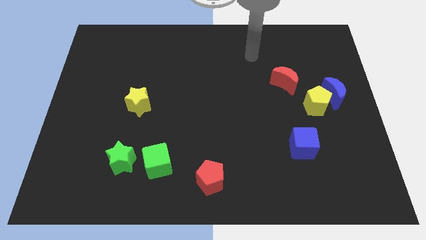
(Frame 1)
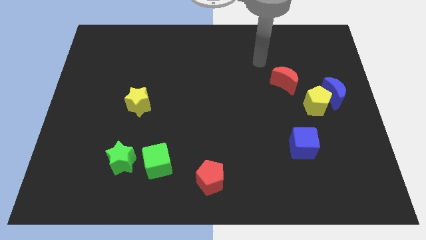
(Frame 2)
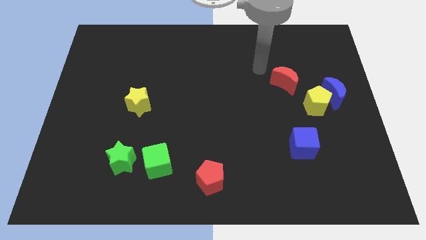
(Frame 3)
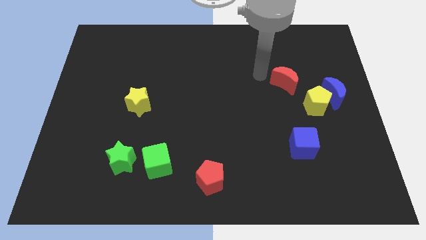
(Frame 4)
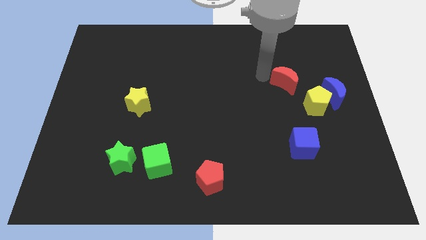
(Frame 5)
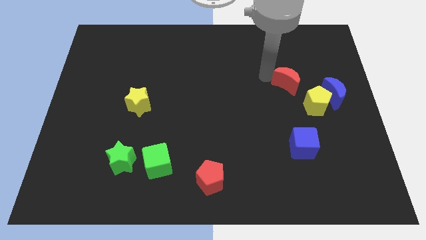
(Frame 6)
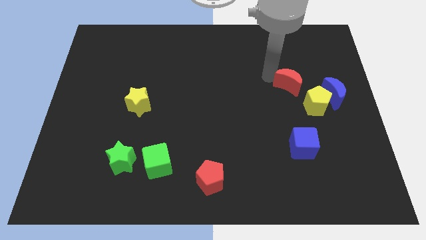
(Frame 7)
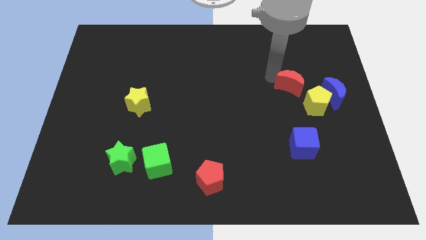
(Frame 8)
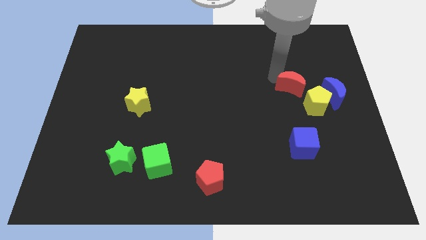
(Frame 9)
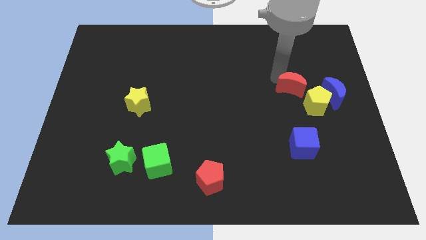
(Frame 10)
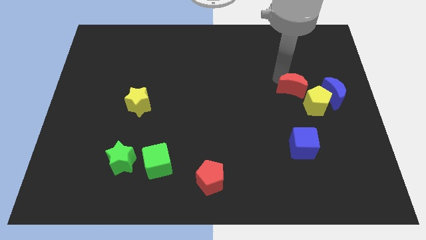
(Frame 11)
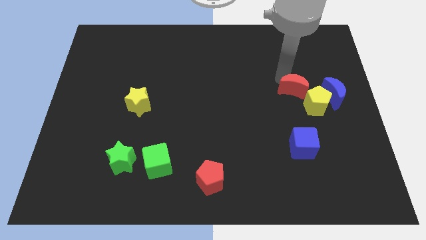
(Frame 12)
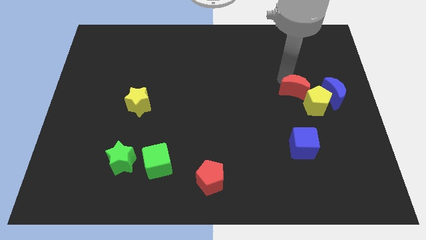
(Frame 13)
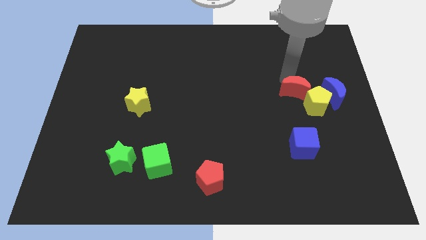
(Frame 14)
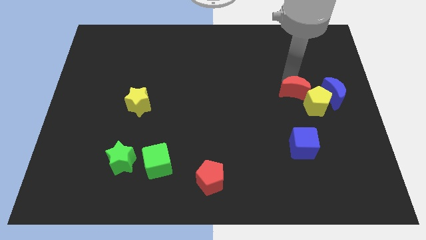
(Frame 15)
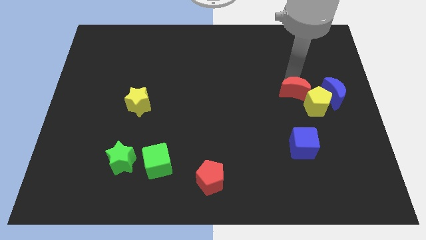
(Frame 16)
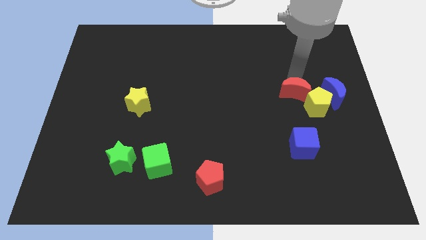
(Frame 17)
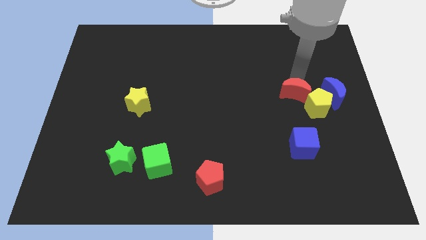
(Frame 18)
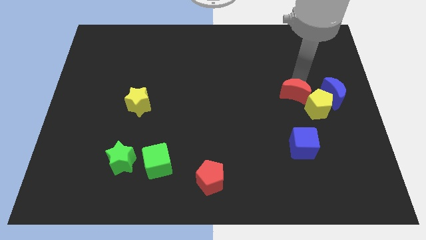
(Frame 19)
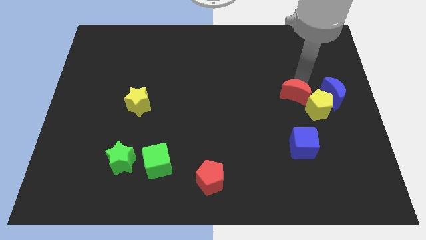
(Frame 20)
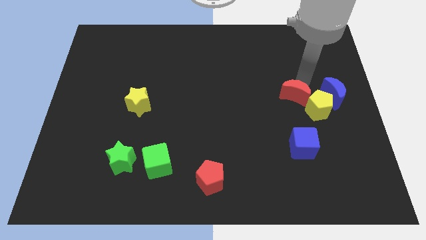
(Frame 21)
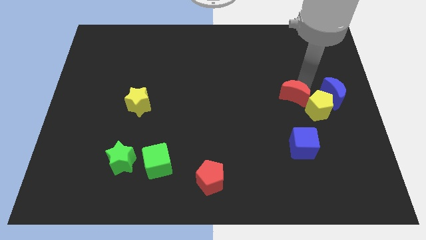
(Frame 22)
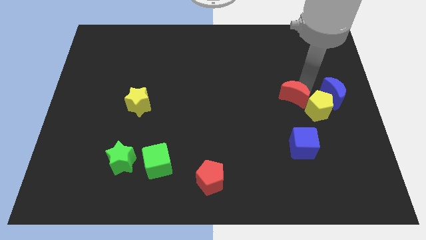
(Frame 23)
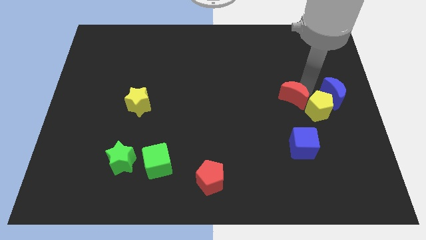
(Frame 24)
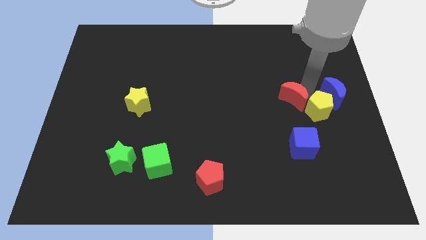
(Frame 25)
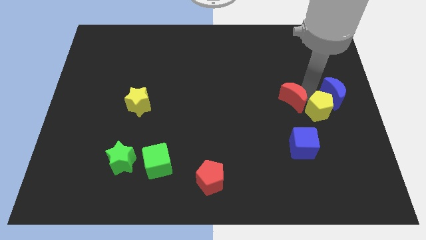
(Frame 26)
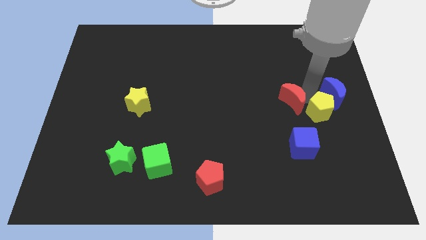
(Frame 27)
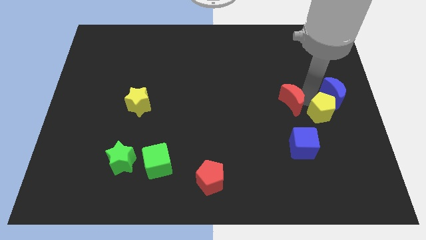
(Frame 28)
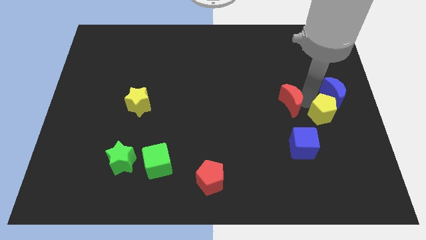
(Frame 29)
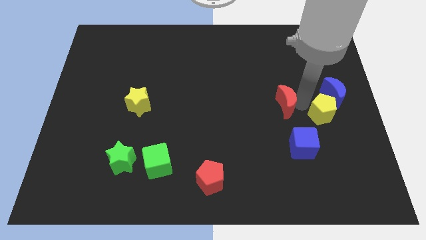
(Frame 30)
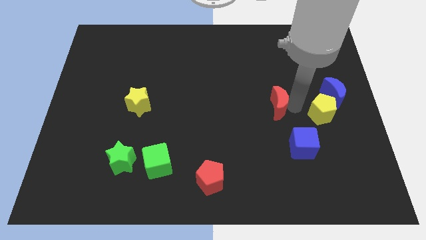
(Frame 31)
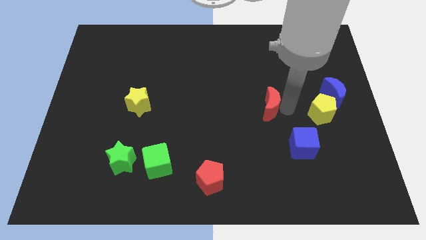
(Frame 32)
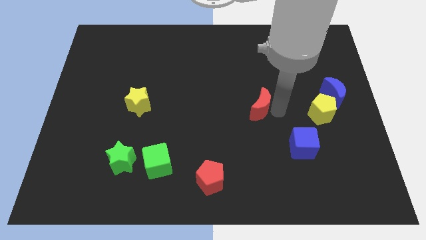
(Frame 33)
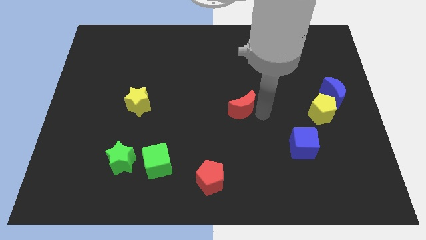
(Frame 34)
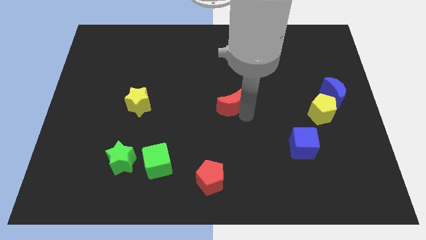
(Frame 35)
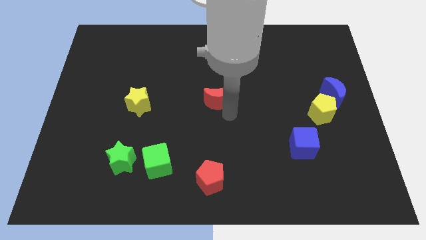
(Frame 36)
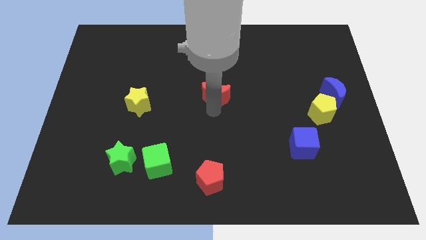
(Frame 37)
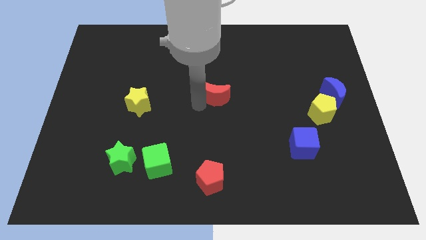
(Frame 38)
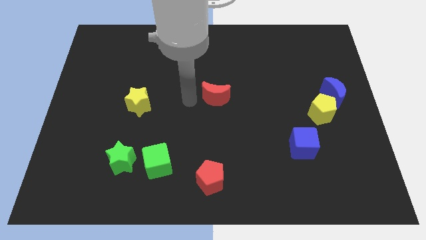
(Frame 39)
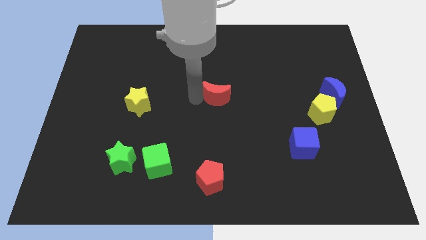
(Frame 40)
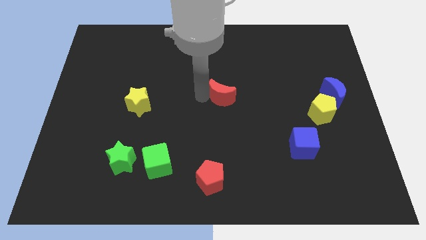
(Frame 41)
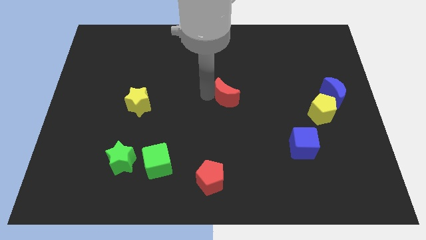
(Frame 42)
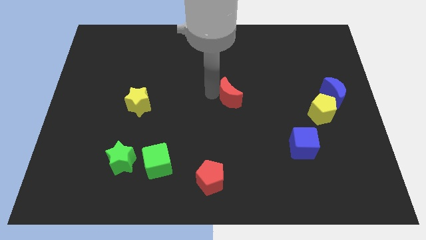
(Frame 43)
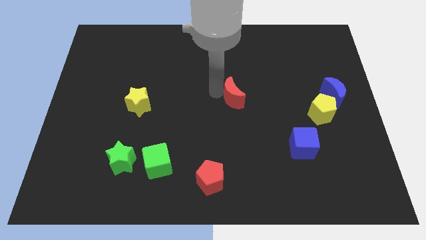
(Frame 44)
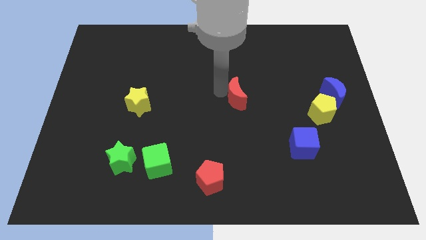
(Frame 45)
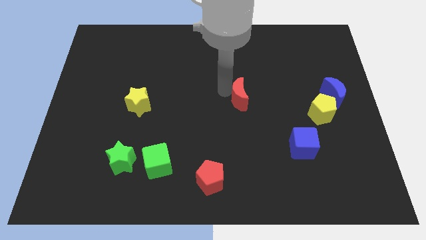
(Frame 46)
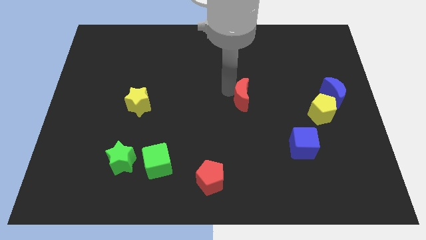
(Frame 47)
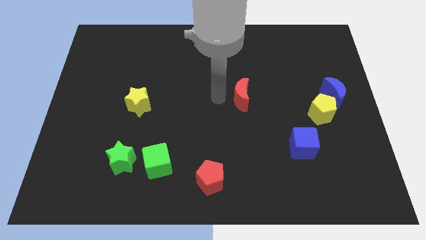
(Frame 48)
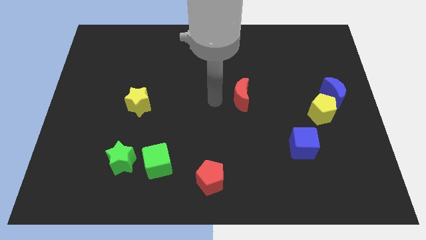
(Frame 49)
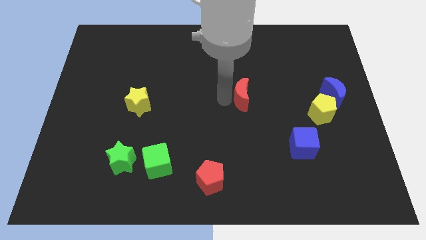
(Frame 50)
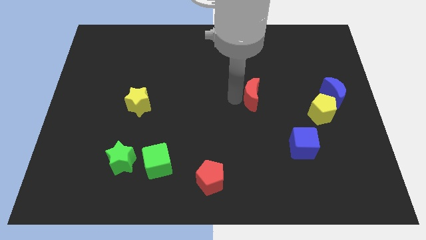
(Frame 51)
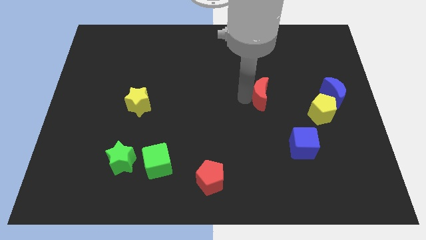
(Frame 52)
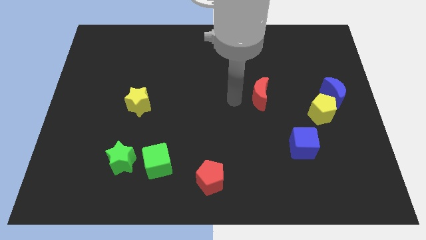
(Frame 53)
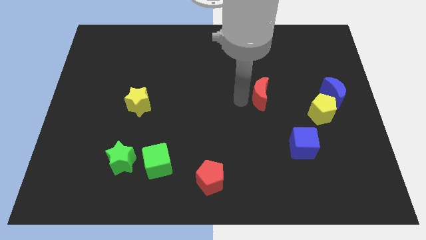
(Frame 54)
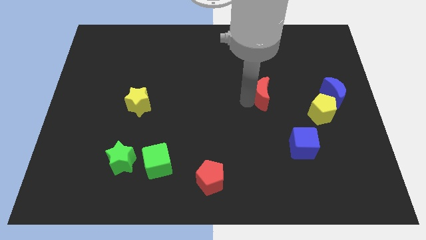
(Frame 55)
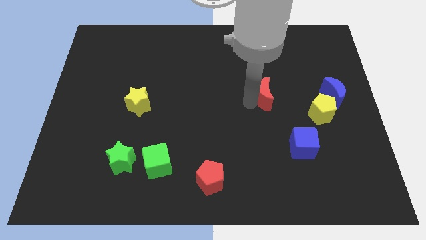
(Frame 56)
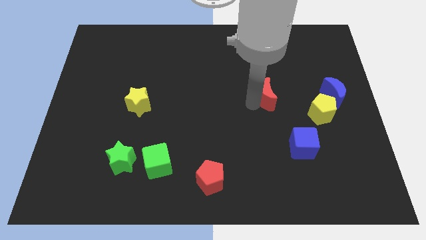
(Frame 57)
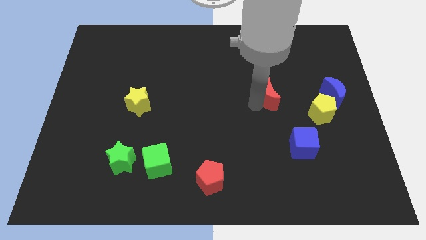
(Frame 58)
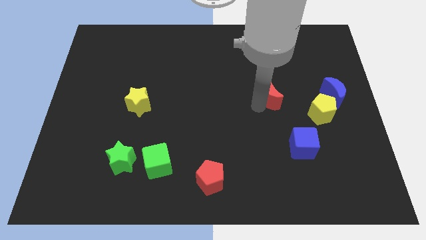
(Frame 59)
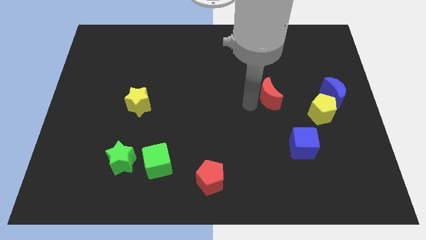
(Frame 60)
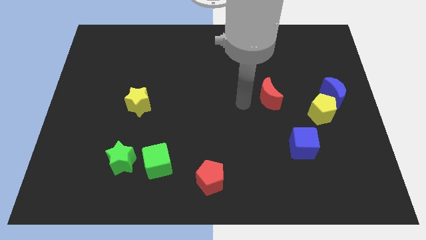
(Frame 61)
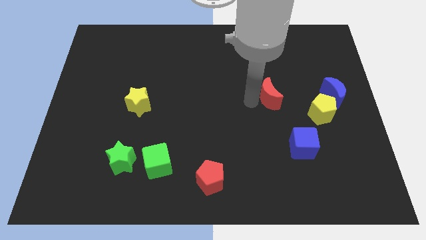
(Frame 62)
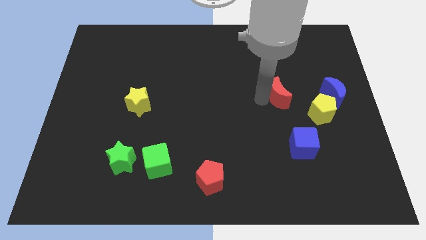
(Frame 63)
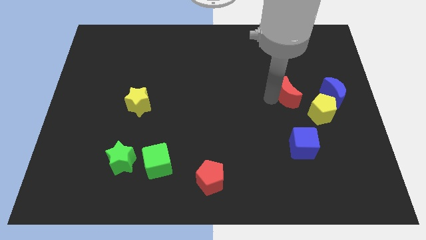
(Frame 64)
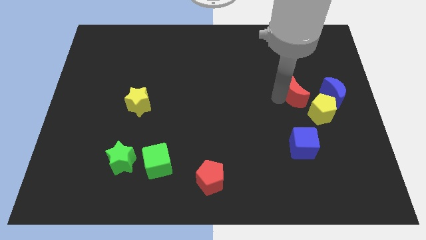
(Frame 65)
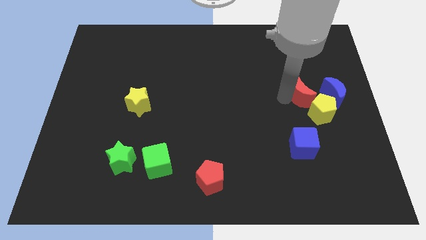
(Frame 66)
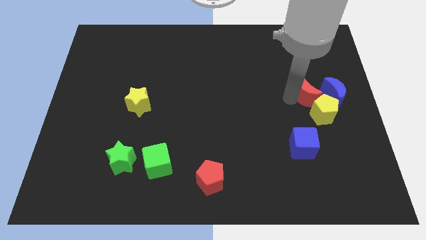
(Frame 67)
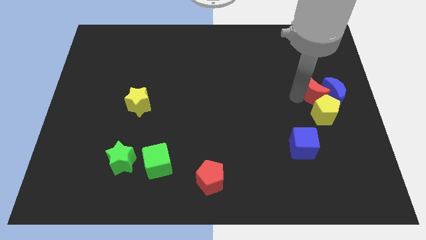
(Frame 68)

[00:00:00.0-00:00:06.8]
slide the red moon close to the blue moon
